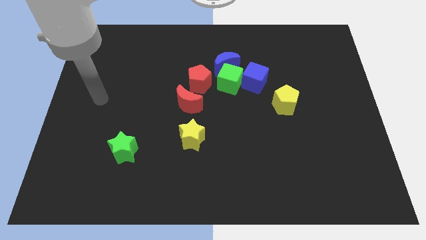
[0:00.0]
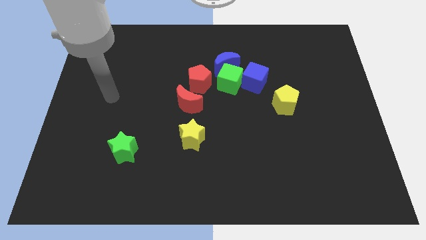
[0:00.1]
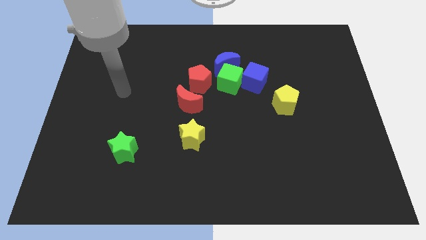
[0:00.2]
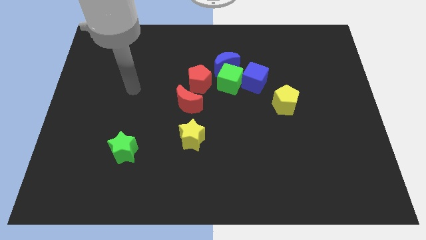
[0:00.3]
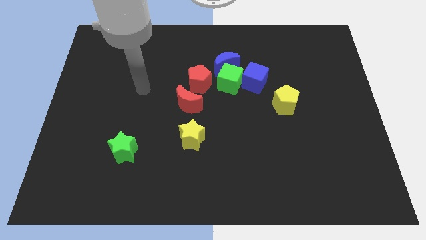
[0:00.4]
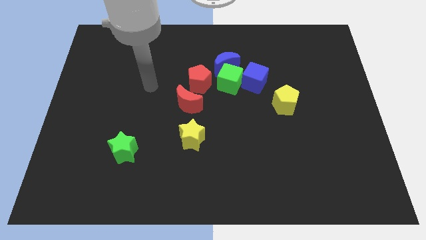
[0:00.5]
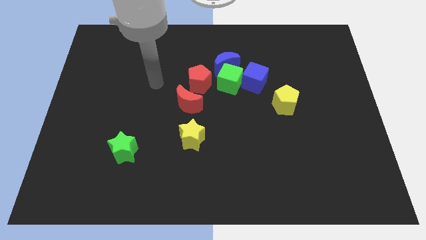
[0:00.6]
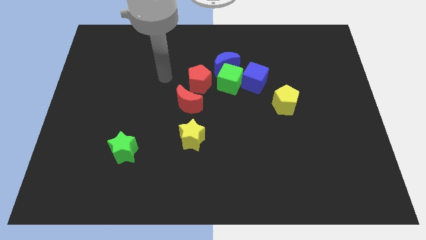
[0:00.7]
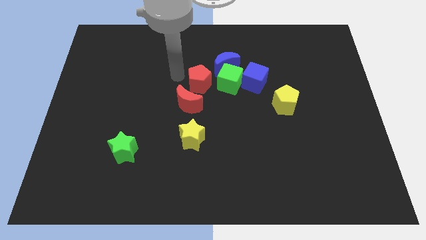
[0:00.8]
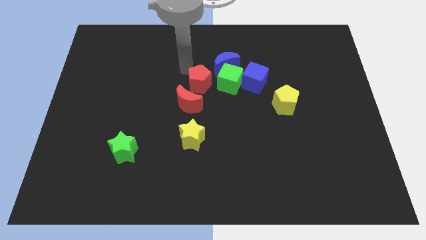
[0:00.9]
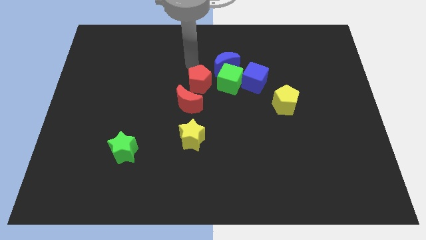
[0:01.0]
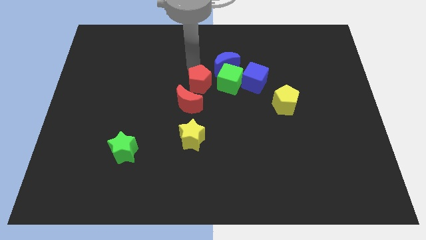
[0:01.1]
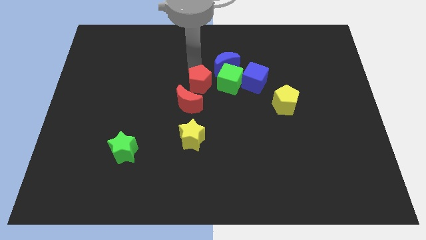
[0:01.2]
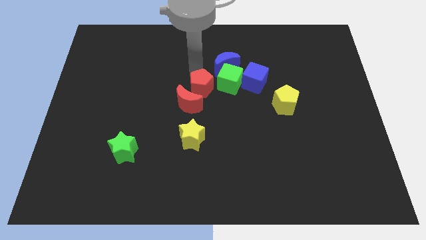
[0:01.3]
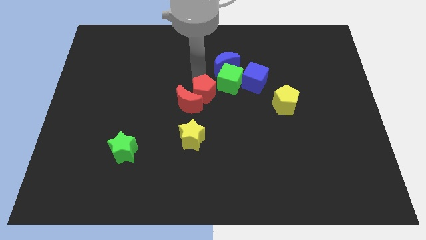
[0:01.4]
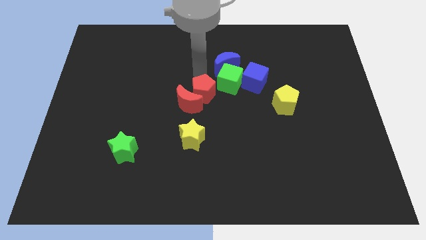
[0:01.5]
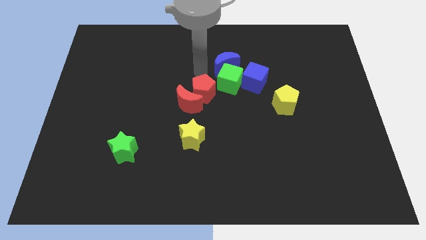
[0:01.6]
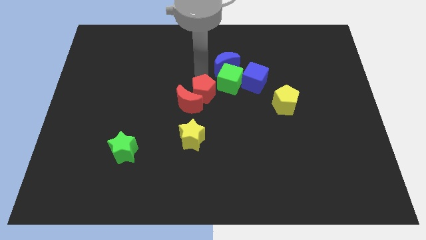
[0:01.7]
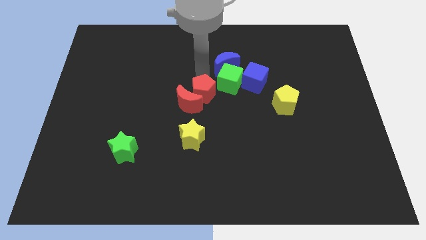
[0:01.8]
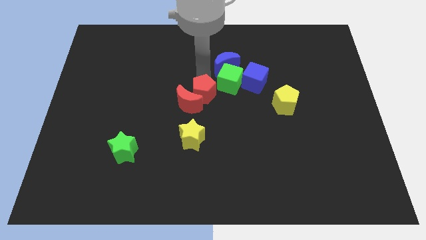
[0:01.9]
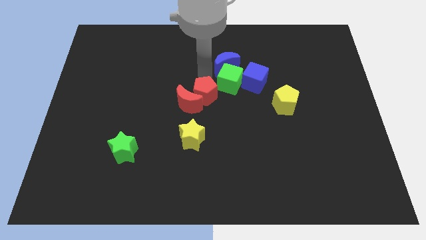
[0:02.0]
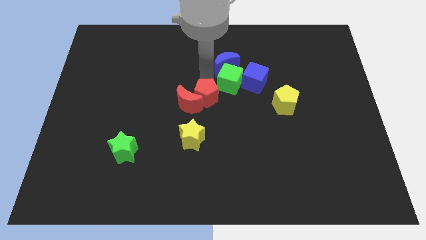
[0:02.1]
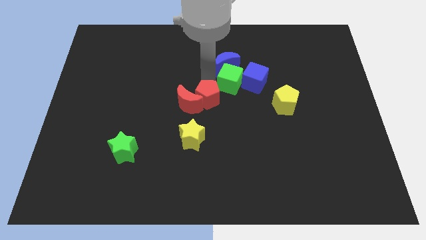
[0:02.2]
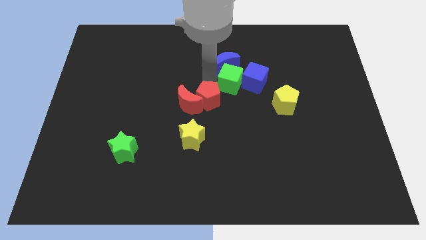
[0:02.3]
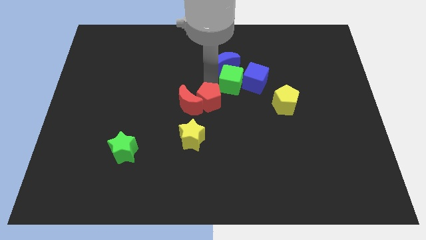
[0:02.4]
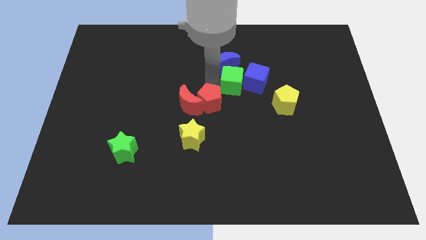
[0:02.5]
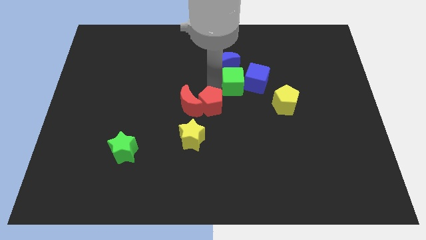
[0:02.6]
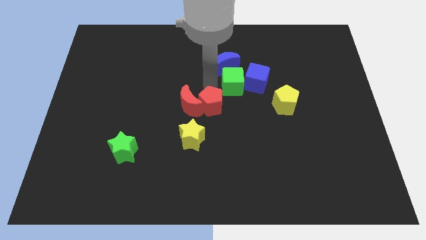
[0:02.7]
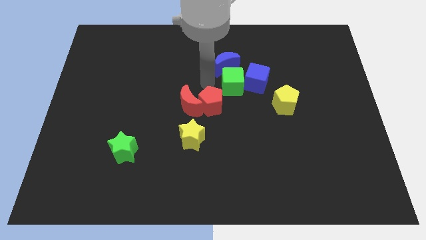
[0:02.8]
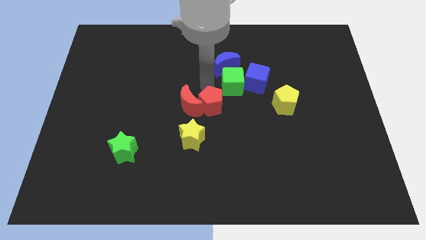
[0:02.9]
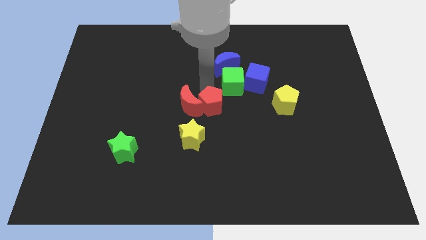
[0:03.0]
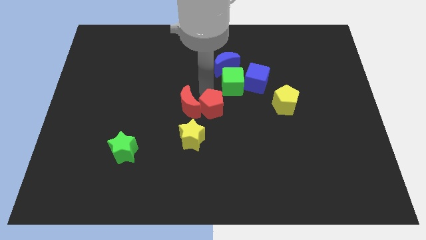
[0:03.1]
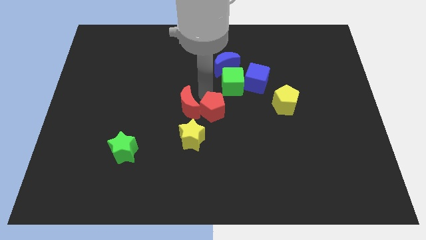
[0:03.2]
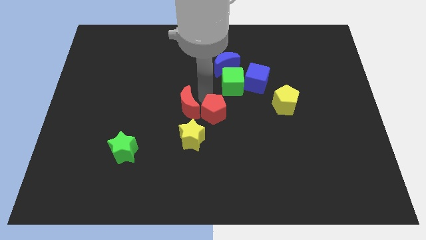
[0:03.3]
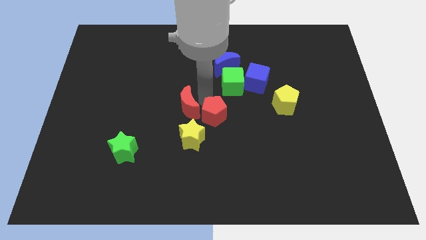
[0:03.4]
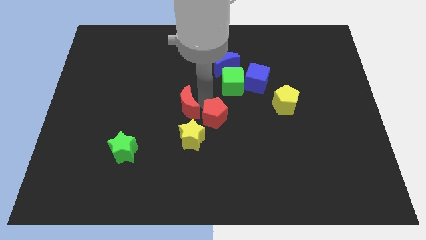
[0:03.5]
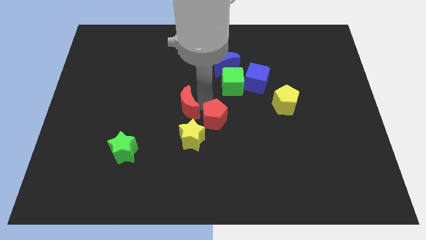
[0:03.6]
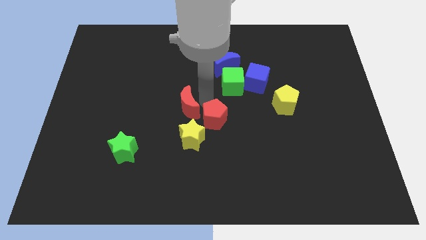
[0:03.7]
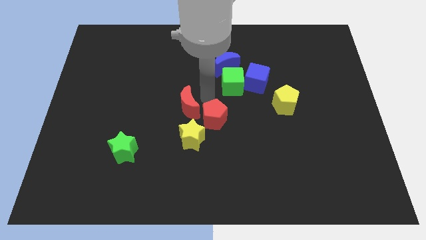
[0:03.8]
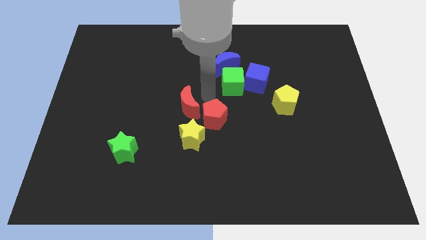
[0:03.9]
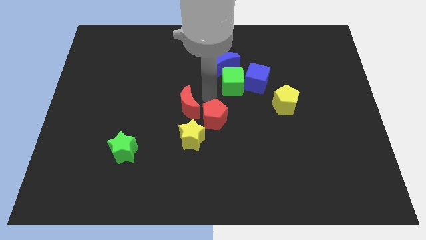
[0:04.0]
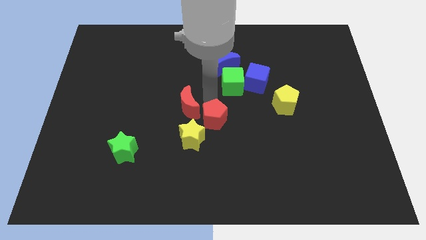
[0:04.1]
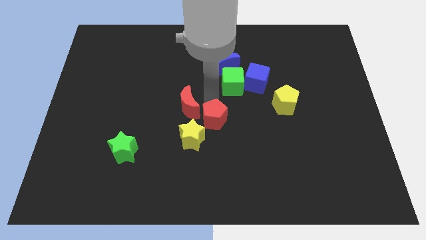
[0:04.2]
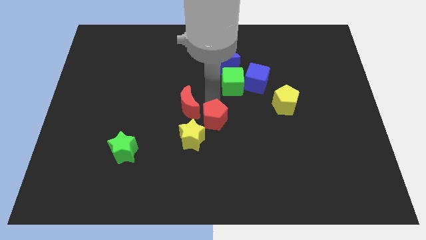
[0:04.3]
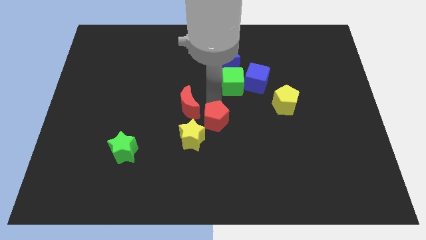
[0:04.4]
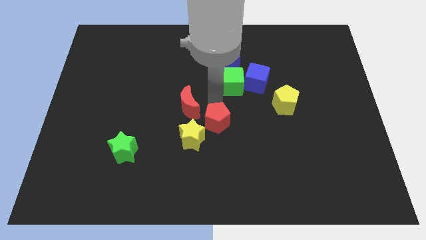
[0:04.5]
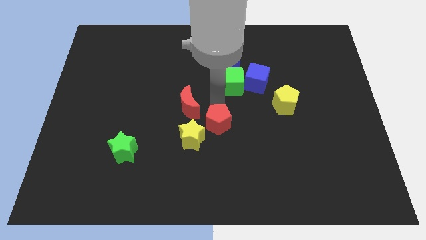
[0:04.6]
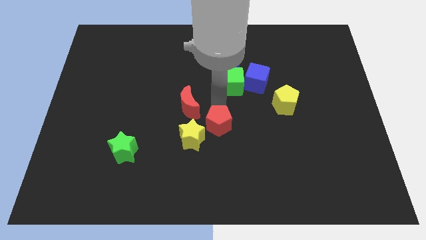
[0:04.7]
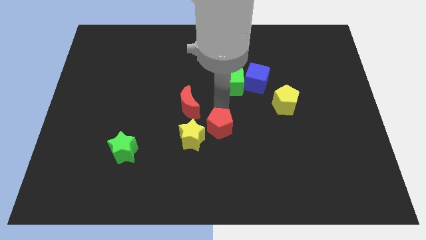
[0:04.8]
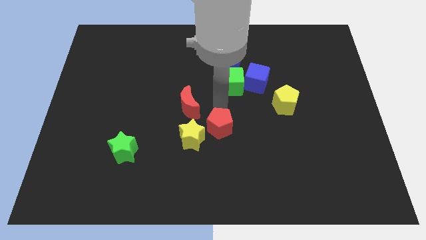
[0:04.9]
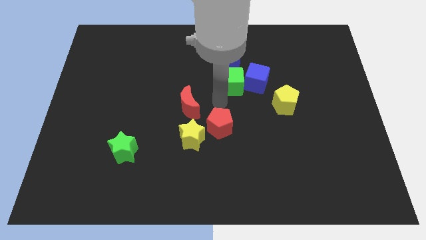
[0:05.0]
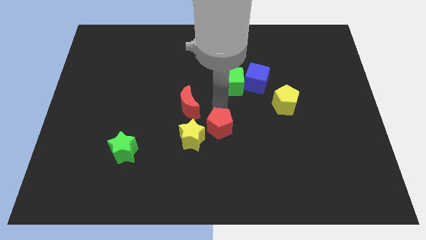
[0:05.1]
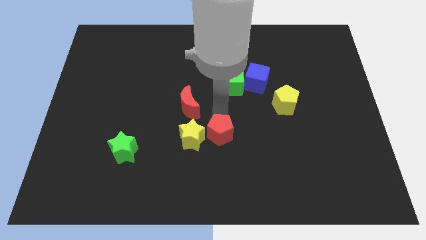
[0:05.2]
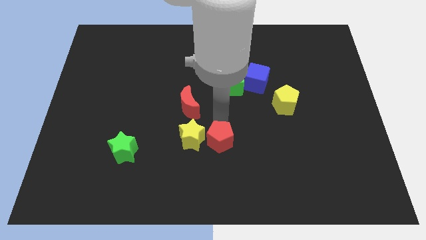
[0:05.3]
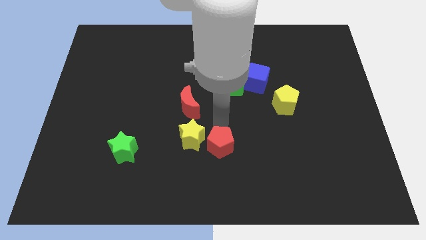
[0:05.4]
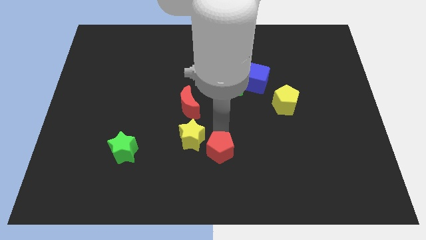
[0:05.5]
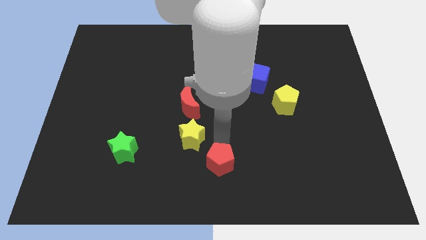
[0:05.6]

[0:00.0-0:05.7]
put the red pentagon to the bottom
